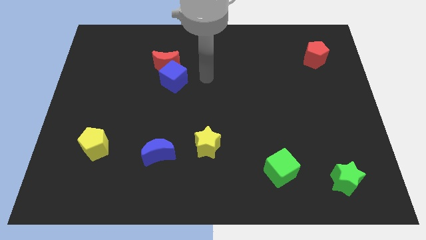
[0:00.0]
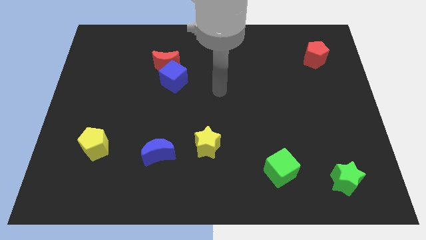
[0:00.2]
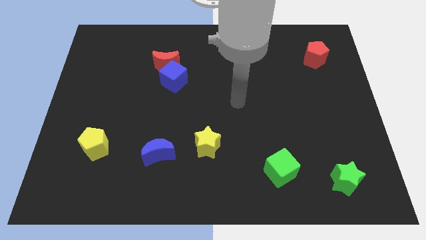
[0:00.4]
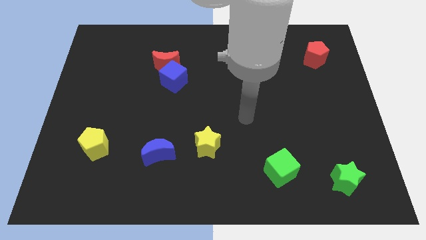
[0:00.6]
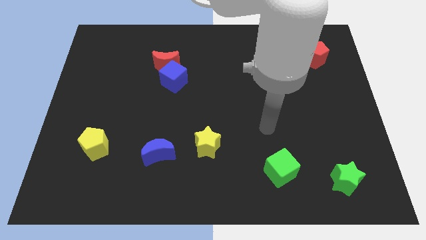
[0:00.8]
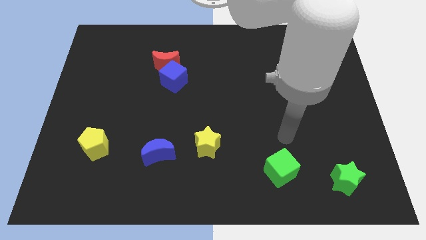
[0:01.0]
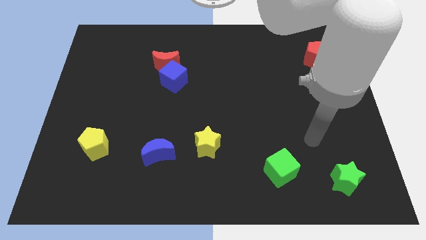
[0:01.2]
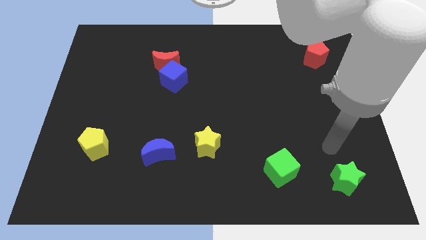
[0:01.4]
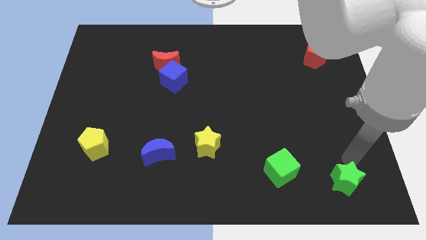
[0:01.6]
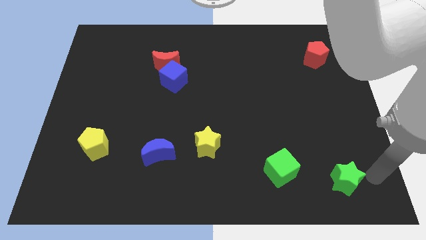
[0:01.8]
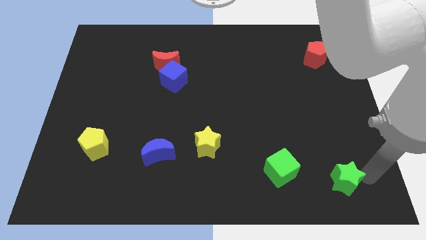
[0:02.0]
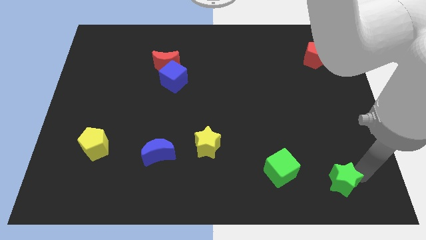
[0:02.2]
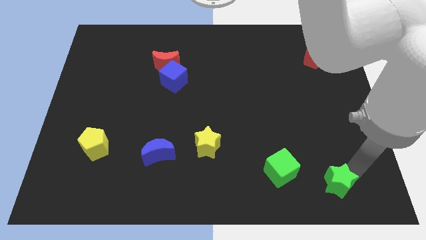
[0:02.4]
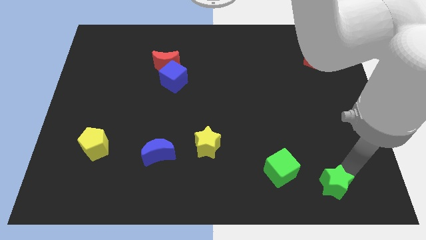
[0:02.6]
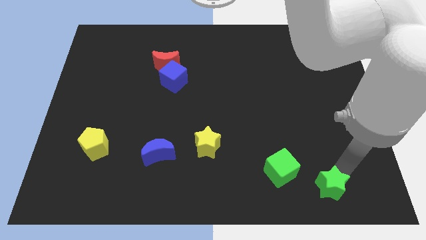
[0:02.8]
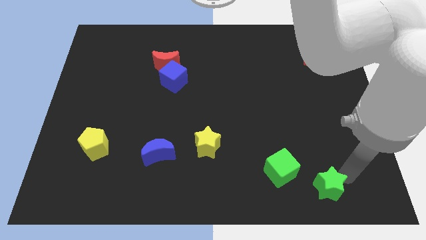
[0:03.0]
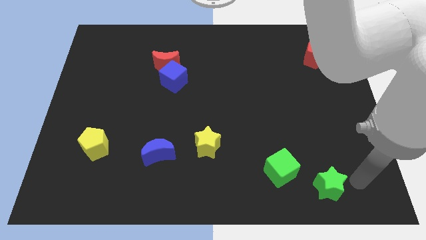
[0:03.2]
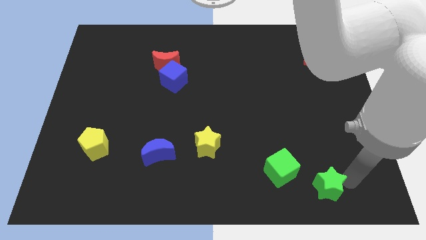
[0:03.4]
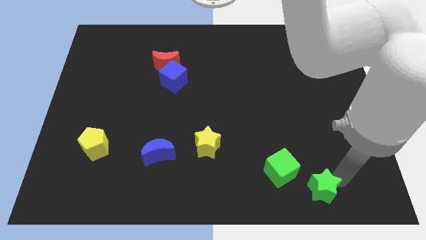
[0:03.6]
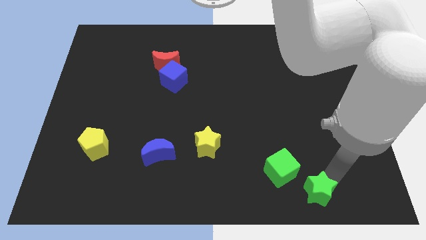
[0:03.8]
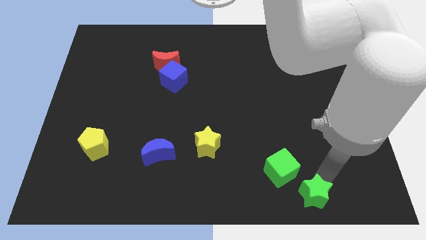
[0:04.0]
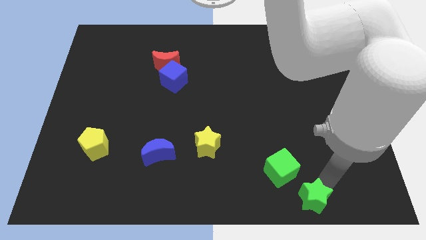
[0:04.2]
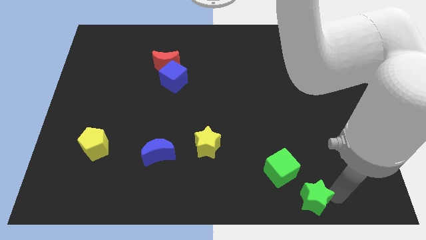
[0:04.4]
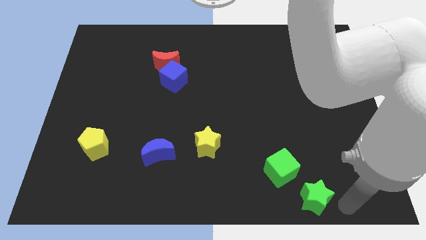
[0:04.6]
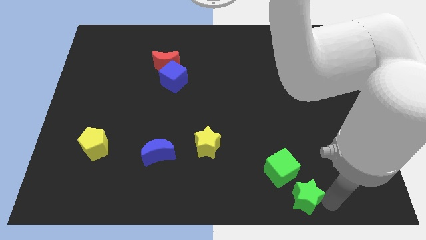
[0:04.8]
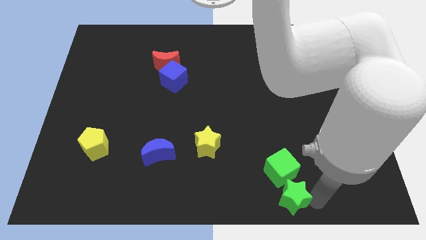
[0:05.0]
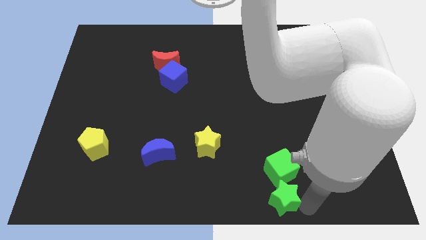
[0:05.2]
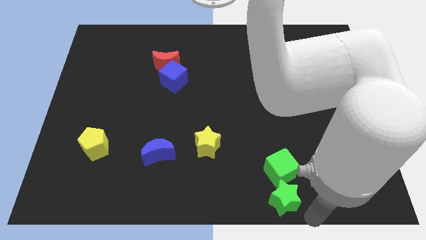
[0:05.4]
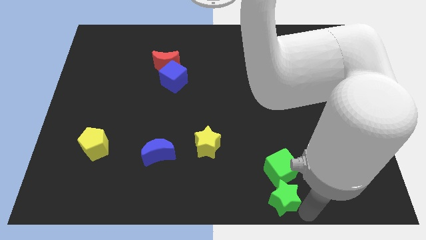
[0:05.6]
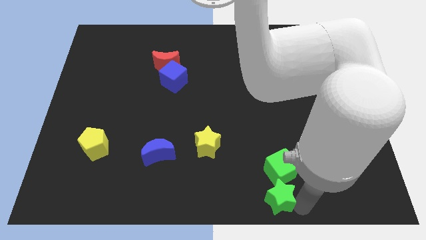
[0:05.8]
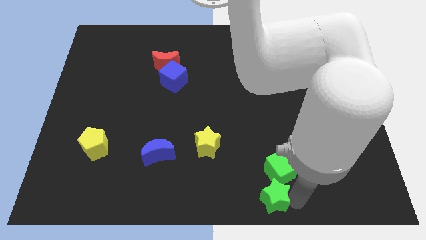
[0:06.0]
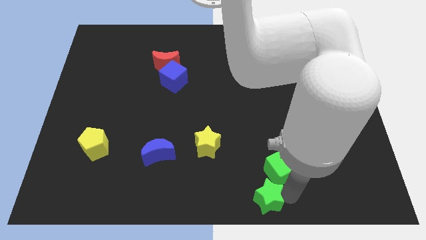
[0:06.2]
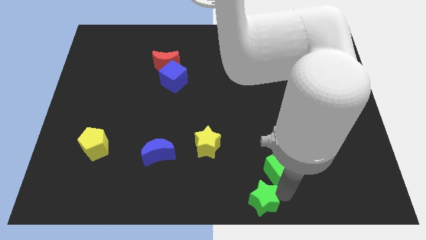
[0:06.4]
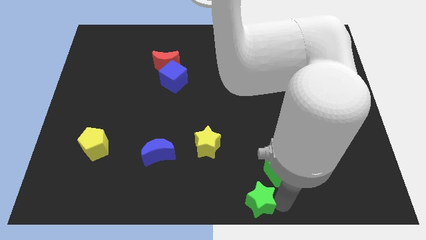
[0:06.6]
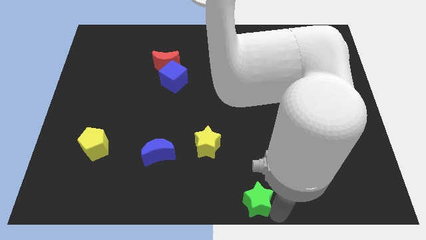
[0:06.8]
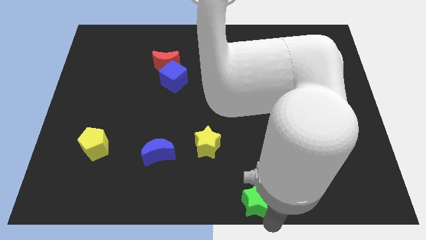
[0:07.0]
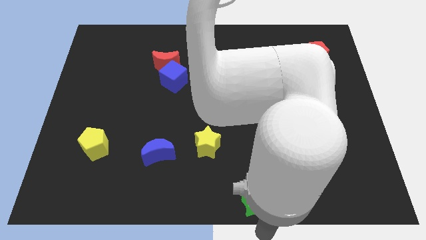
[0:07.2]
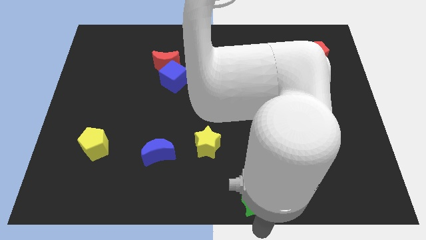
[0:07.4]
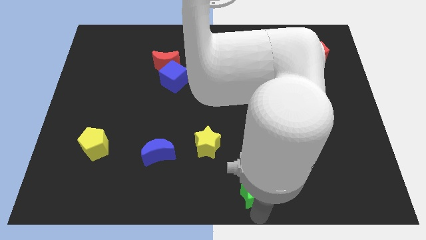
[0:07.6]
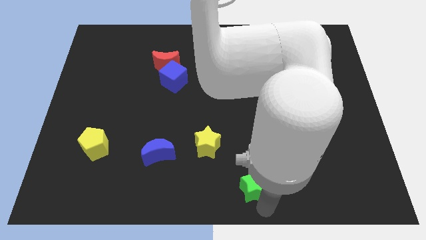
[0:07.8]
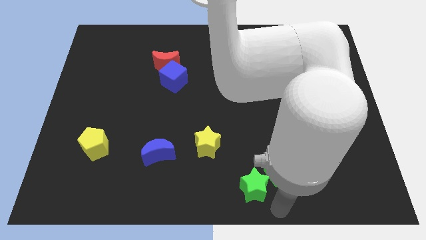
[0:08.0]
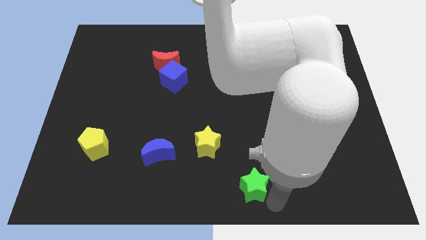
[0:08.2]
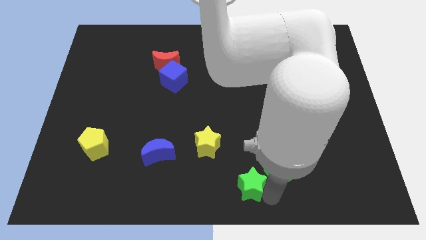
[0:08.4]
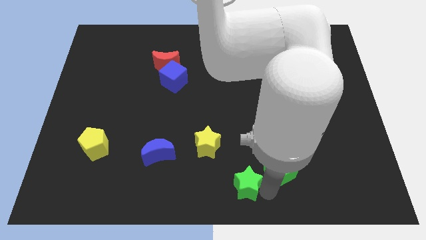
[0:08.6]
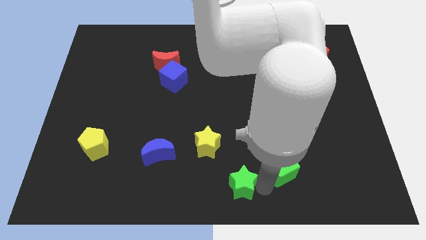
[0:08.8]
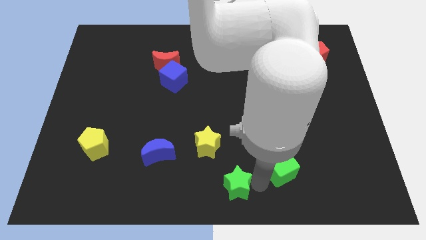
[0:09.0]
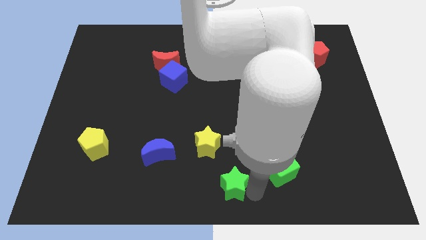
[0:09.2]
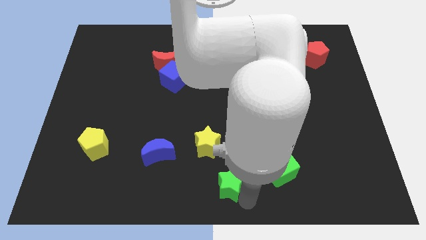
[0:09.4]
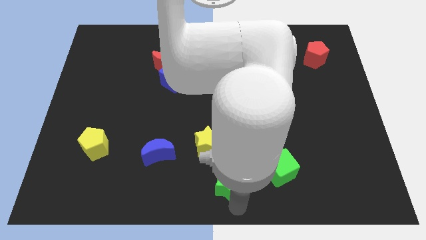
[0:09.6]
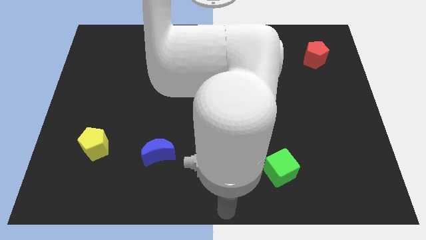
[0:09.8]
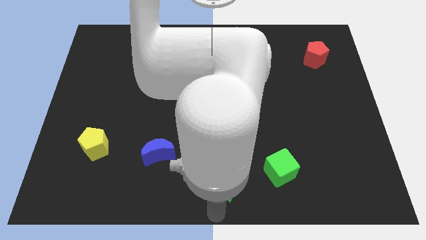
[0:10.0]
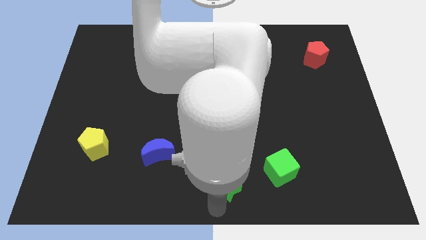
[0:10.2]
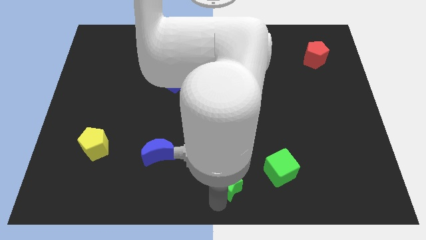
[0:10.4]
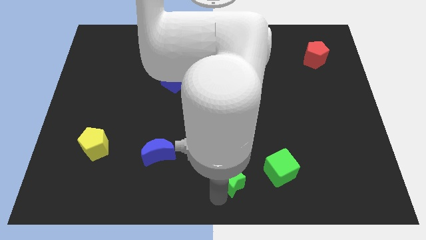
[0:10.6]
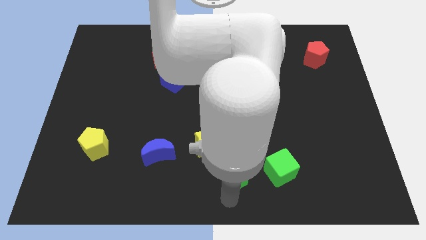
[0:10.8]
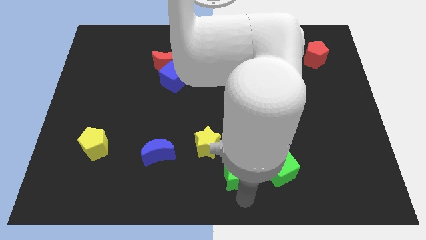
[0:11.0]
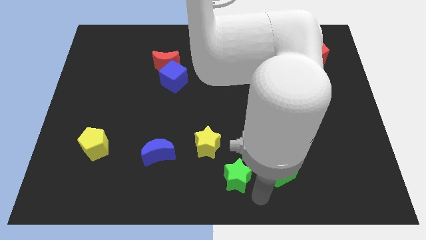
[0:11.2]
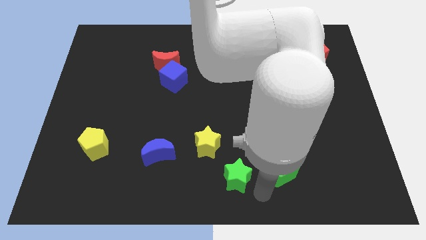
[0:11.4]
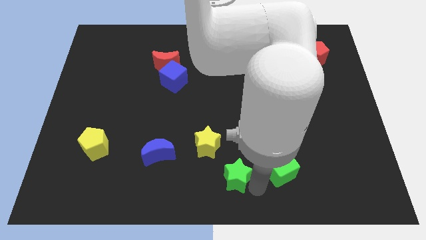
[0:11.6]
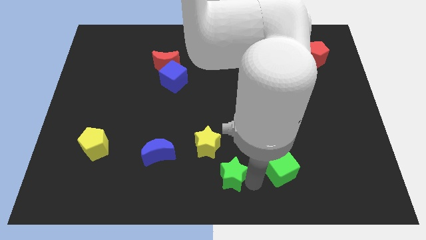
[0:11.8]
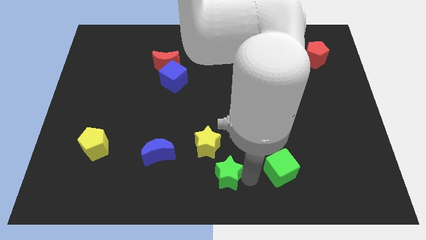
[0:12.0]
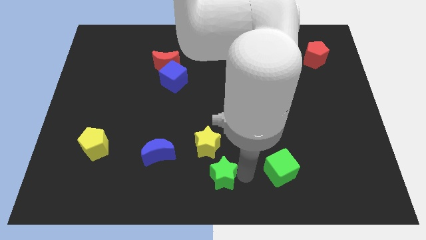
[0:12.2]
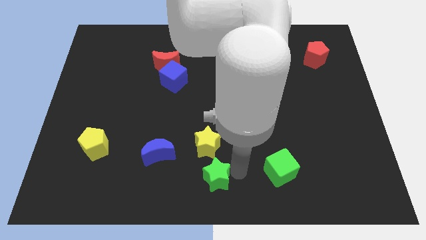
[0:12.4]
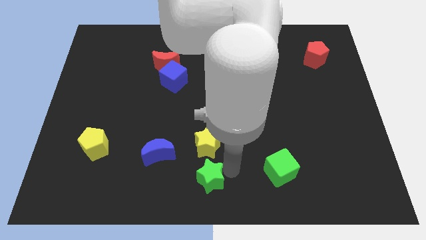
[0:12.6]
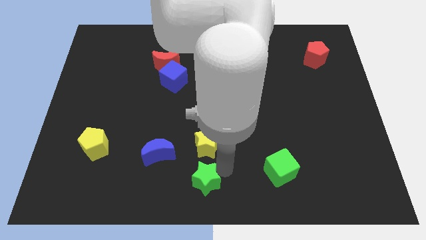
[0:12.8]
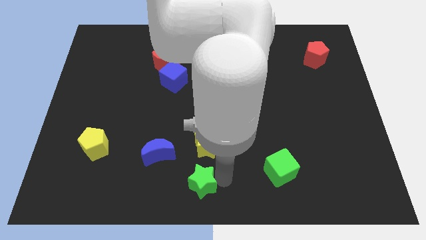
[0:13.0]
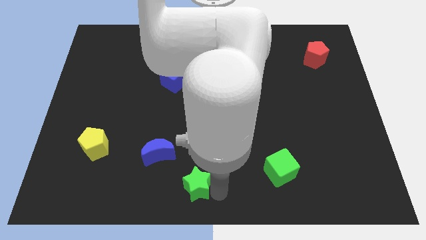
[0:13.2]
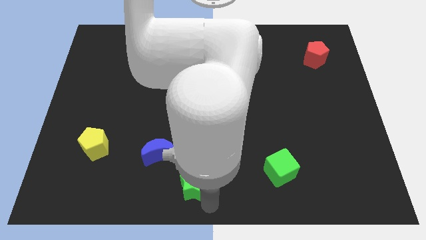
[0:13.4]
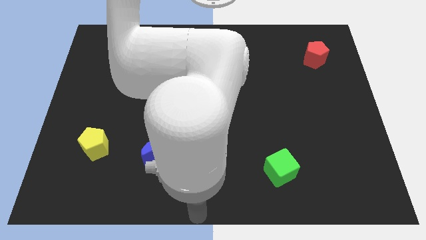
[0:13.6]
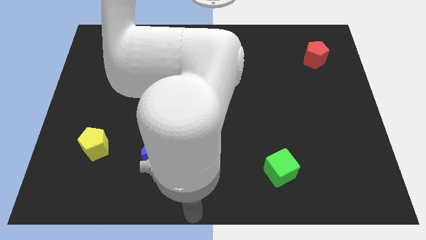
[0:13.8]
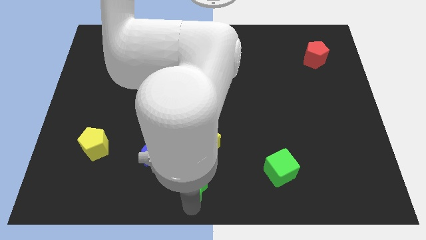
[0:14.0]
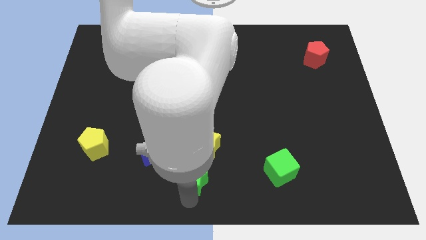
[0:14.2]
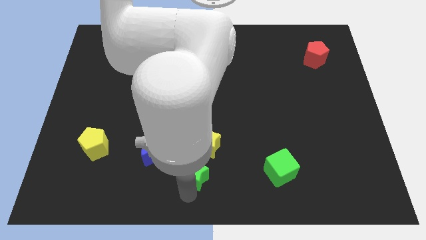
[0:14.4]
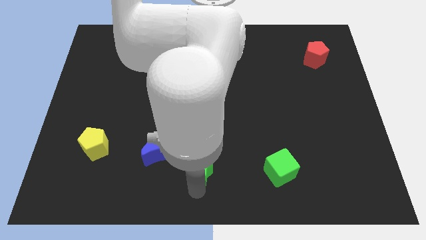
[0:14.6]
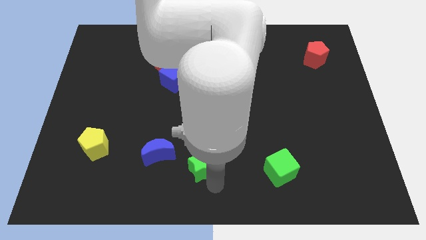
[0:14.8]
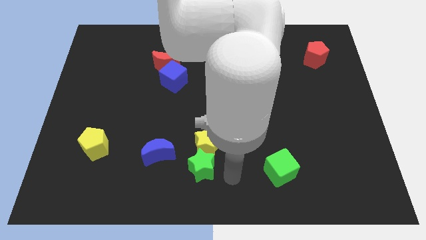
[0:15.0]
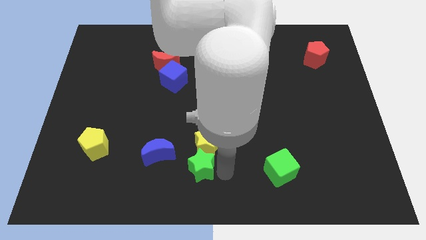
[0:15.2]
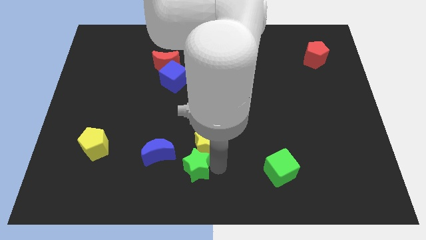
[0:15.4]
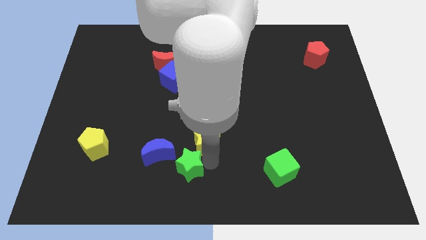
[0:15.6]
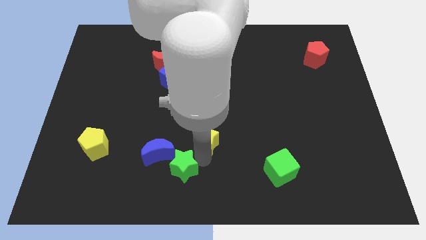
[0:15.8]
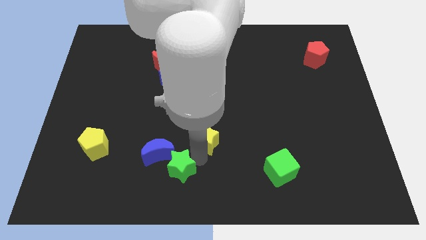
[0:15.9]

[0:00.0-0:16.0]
move the green star close to the blue moon
